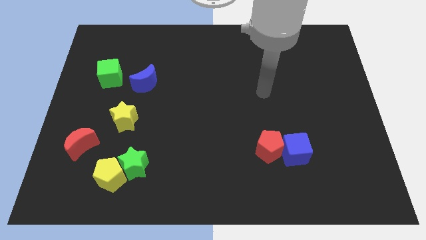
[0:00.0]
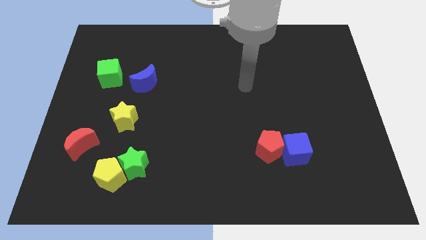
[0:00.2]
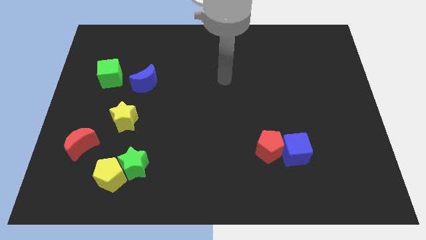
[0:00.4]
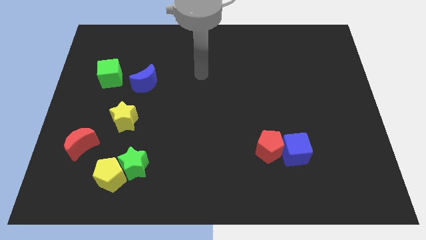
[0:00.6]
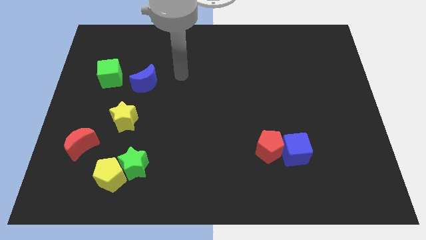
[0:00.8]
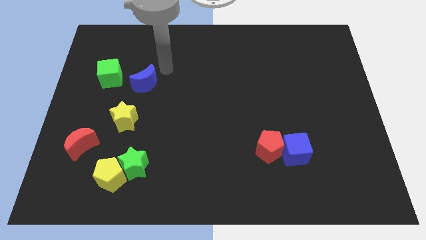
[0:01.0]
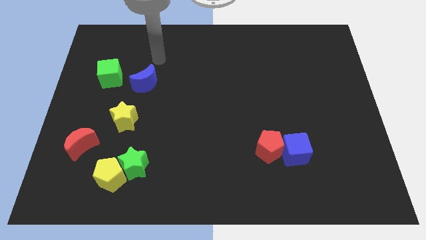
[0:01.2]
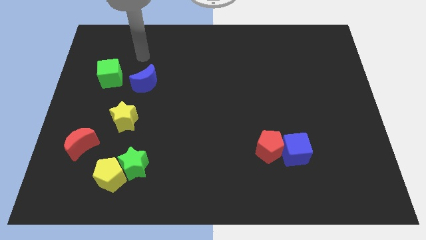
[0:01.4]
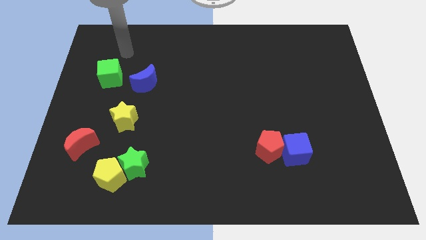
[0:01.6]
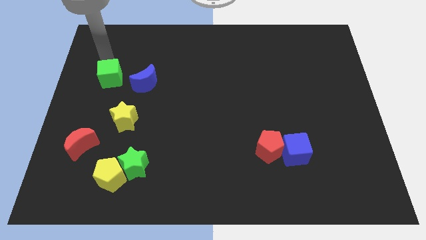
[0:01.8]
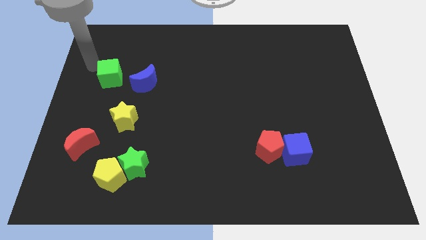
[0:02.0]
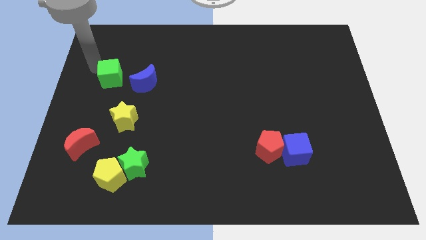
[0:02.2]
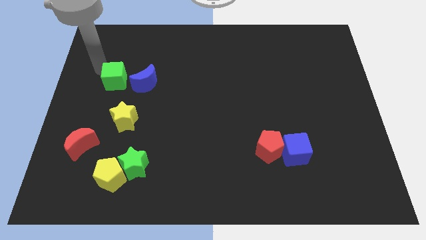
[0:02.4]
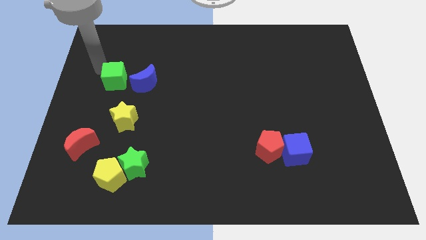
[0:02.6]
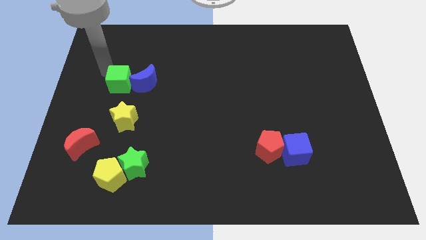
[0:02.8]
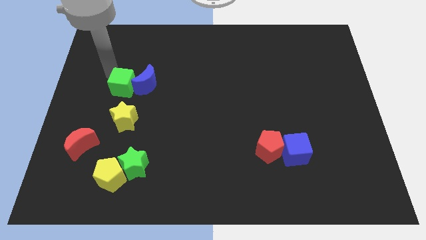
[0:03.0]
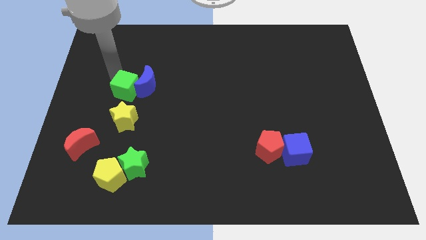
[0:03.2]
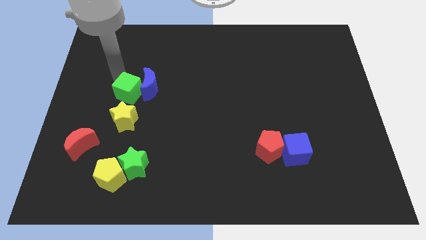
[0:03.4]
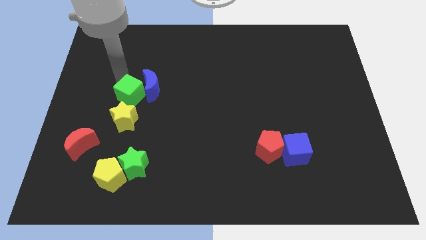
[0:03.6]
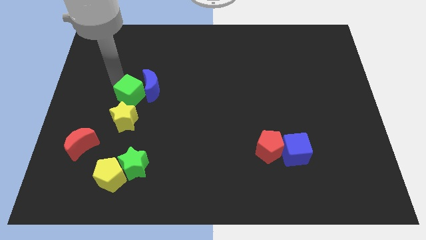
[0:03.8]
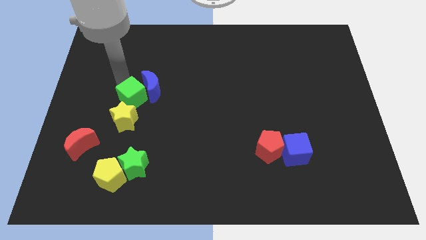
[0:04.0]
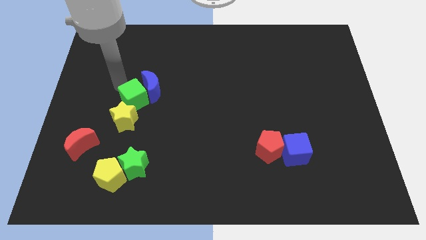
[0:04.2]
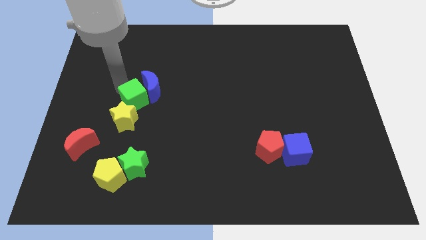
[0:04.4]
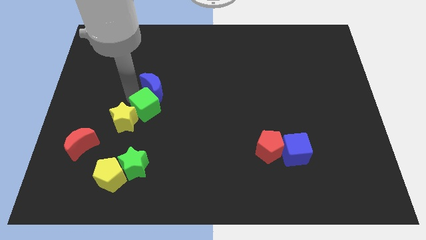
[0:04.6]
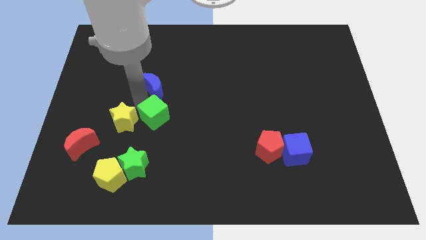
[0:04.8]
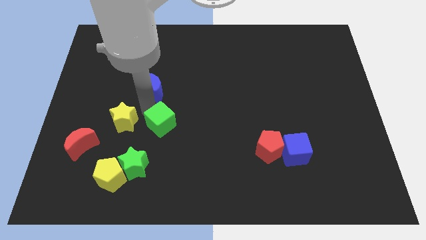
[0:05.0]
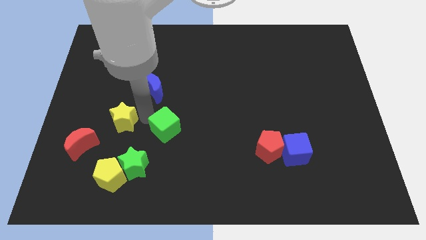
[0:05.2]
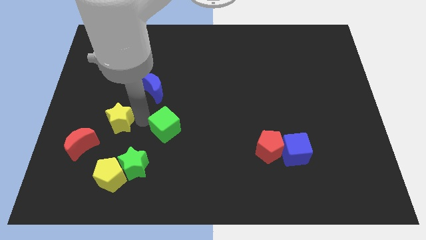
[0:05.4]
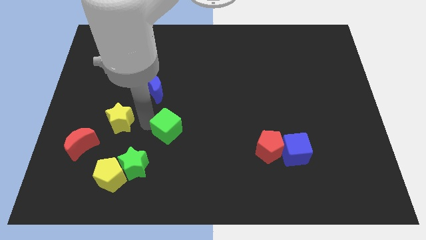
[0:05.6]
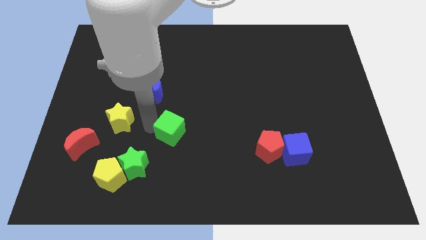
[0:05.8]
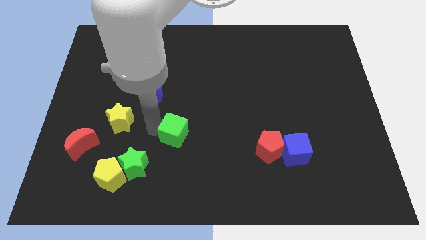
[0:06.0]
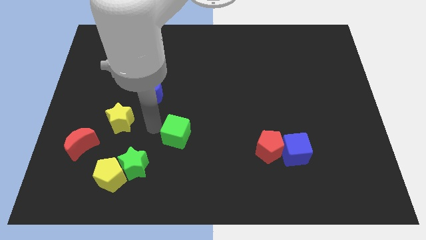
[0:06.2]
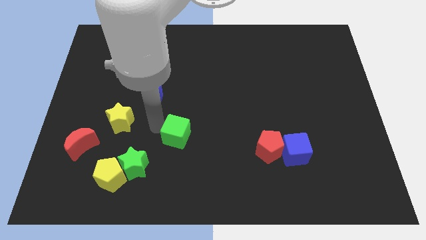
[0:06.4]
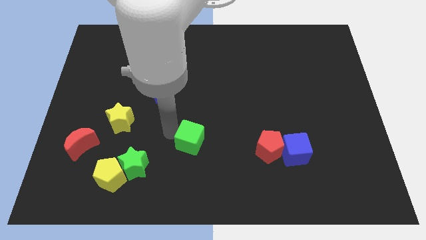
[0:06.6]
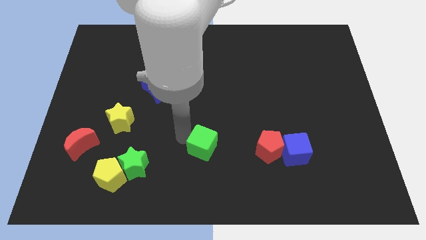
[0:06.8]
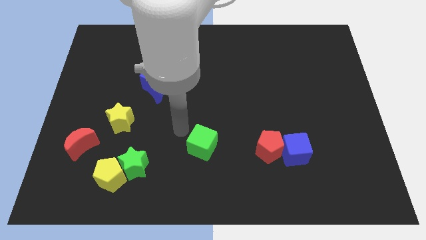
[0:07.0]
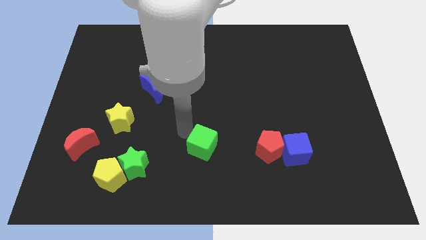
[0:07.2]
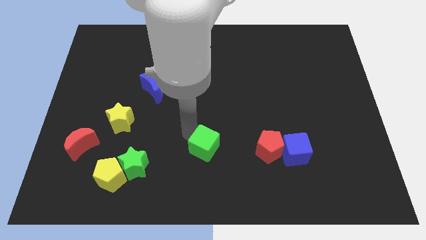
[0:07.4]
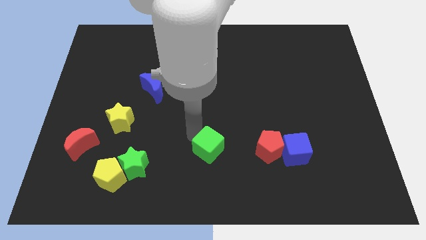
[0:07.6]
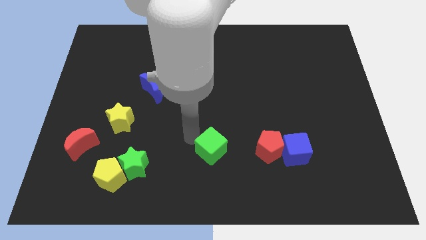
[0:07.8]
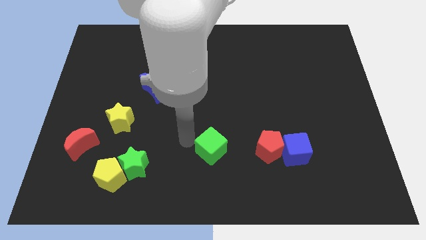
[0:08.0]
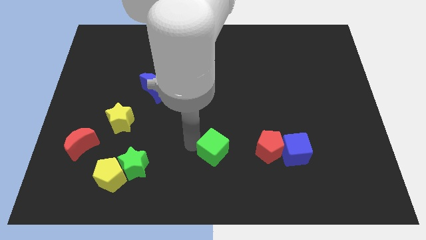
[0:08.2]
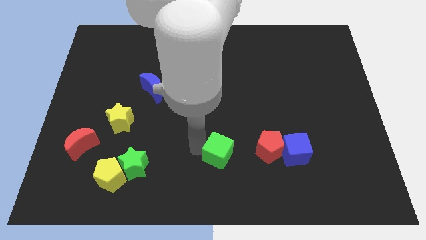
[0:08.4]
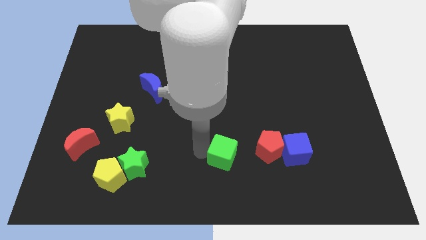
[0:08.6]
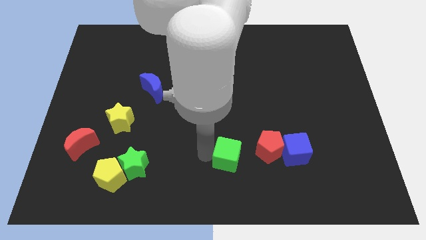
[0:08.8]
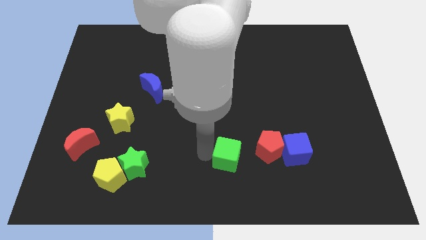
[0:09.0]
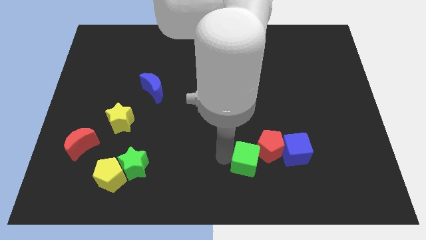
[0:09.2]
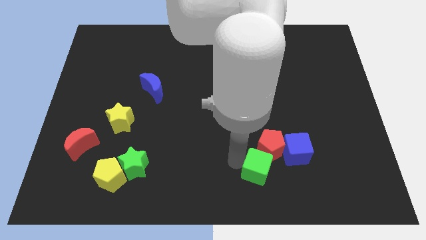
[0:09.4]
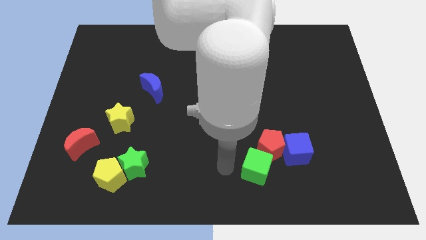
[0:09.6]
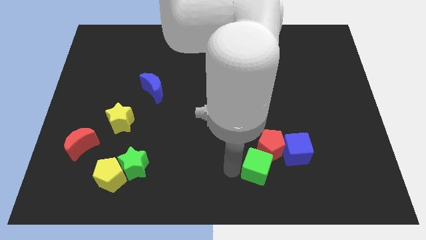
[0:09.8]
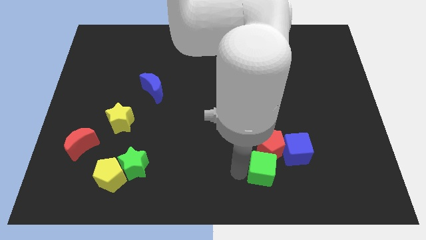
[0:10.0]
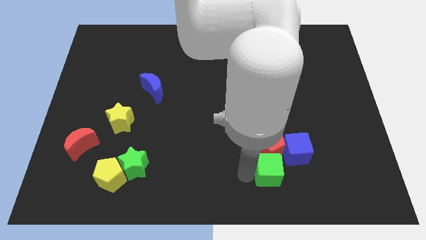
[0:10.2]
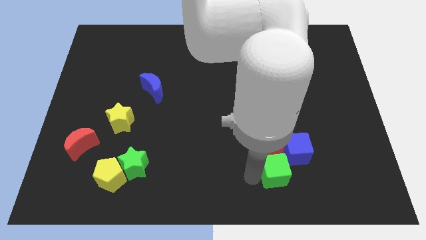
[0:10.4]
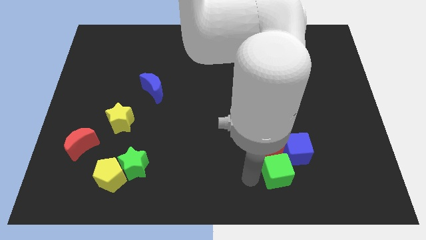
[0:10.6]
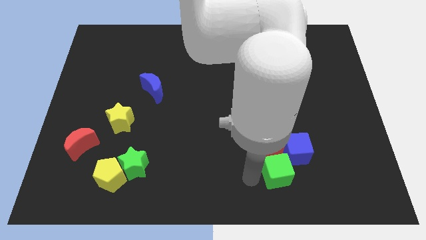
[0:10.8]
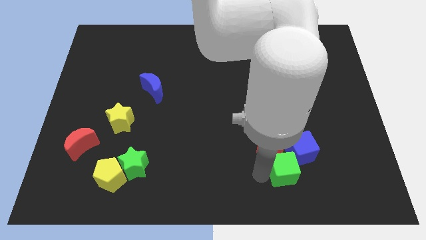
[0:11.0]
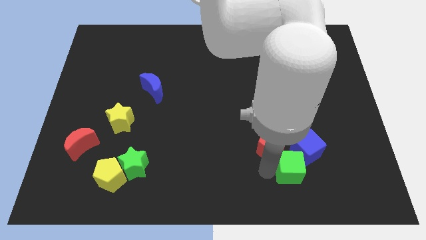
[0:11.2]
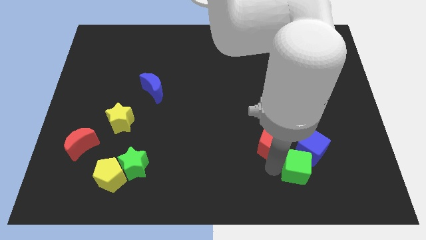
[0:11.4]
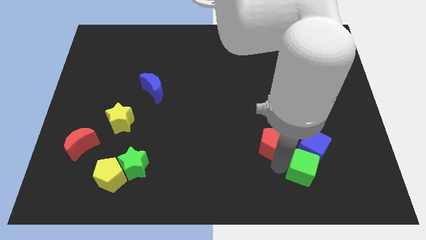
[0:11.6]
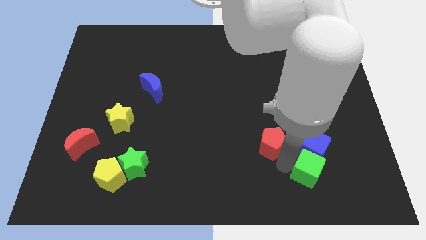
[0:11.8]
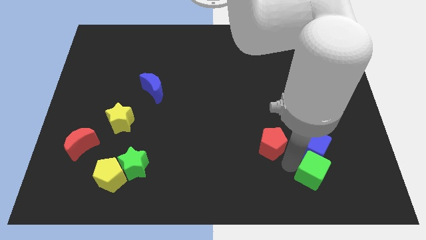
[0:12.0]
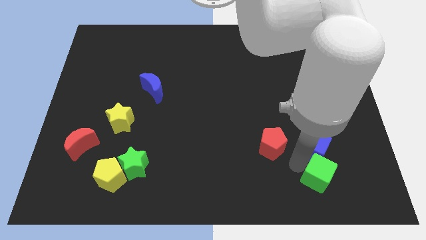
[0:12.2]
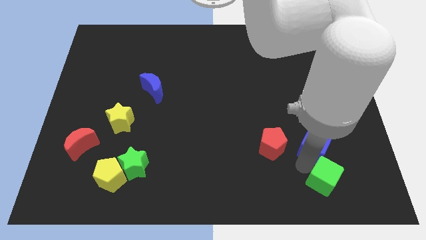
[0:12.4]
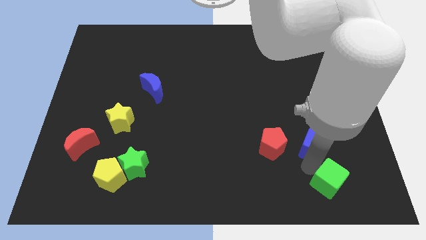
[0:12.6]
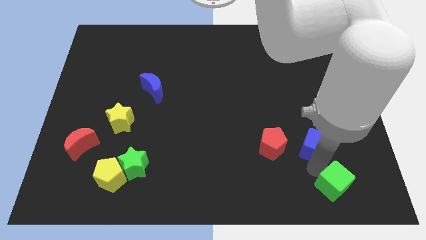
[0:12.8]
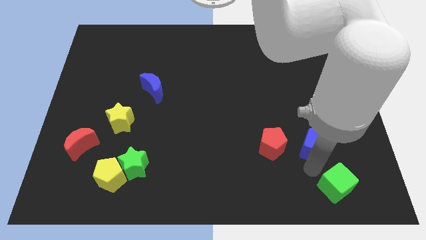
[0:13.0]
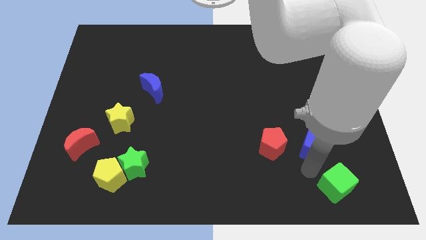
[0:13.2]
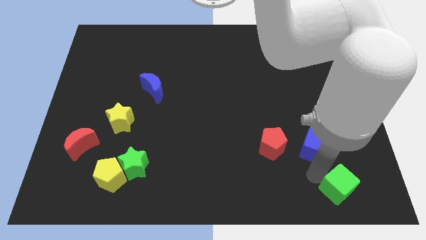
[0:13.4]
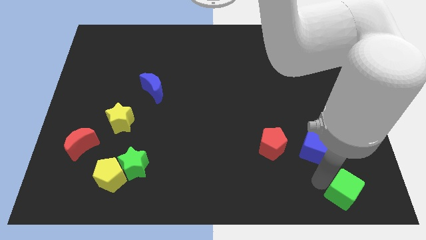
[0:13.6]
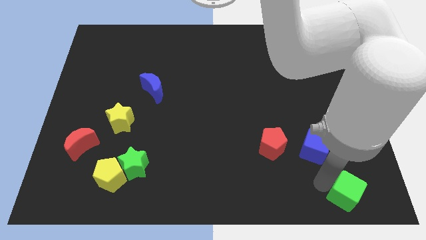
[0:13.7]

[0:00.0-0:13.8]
put the green cube to the lower right corner
